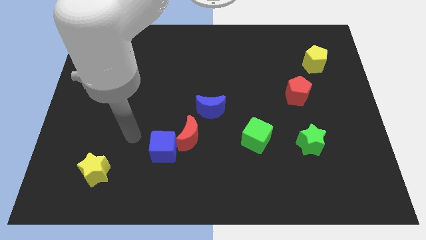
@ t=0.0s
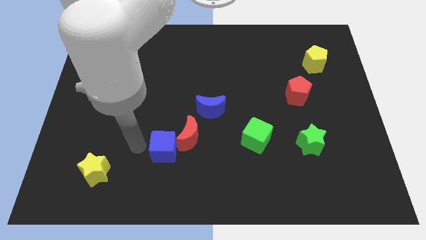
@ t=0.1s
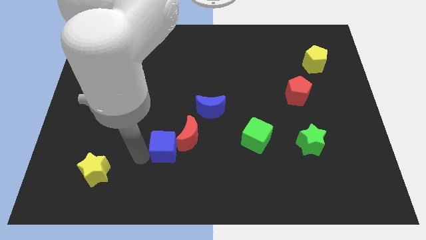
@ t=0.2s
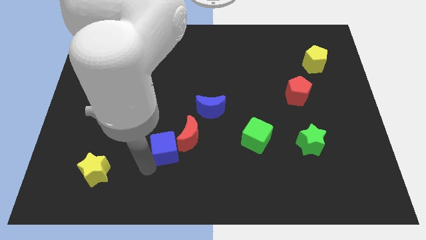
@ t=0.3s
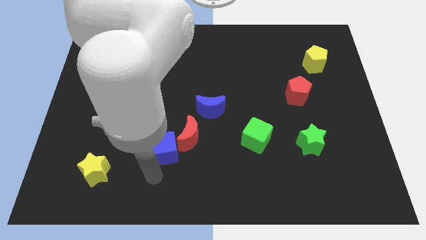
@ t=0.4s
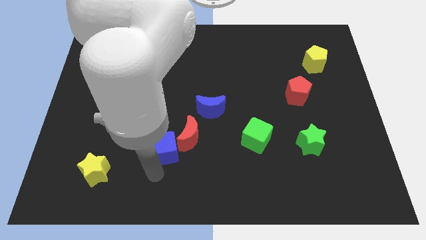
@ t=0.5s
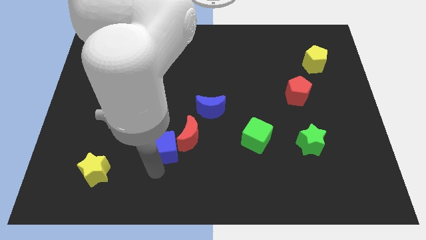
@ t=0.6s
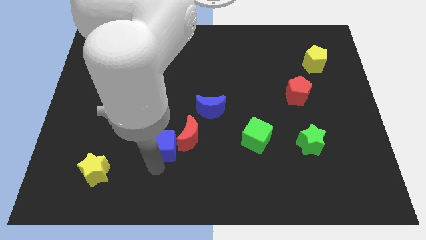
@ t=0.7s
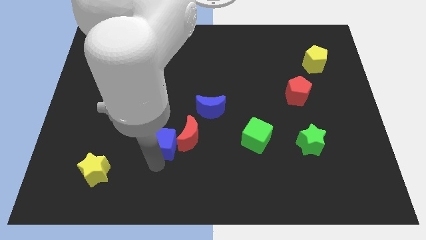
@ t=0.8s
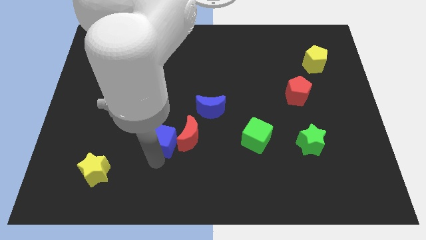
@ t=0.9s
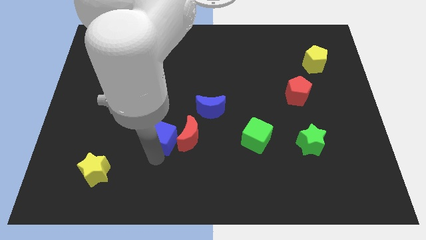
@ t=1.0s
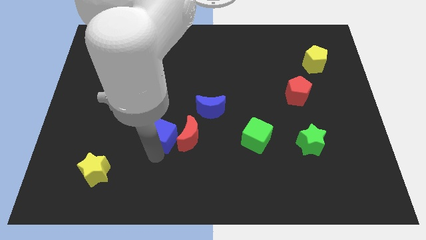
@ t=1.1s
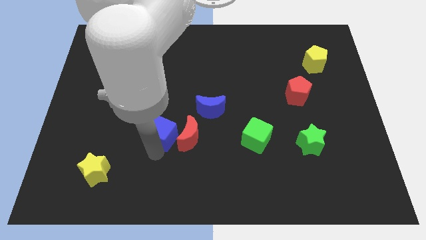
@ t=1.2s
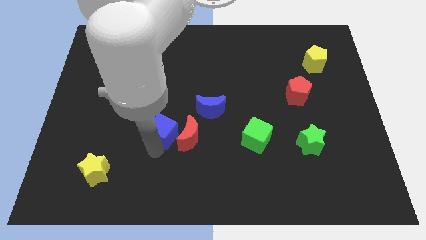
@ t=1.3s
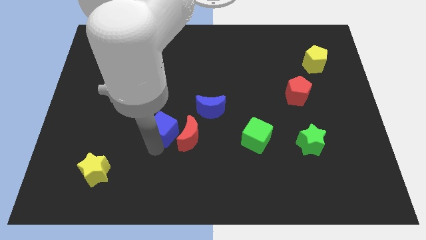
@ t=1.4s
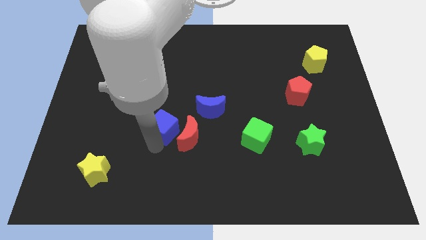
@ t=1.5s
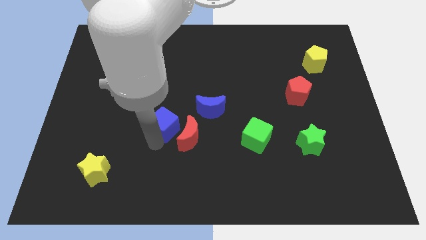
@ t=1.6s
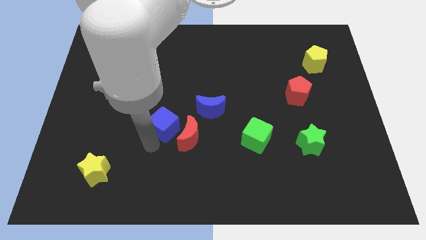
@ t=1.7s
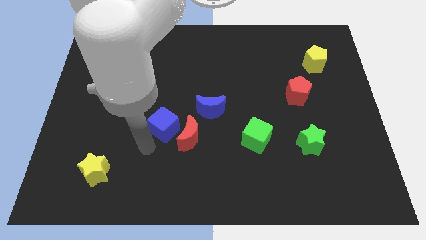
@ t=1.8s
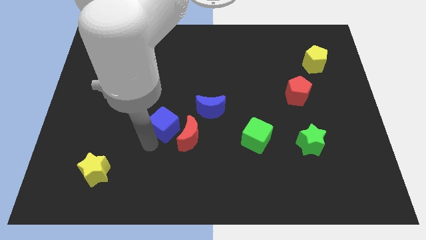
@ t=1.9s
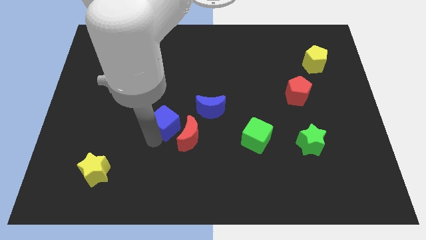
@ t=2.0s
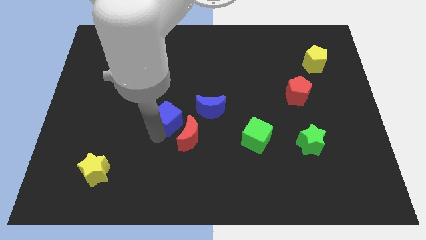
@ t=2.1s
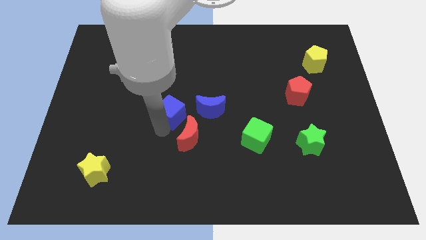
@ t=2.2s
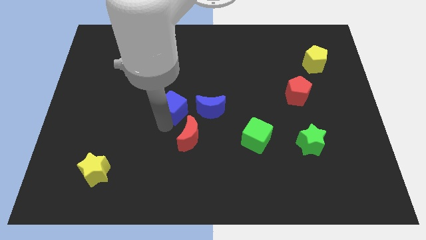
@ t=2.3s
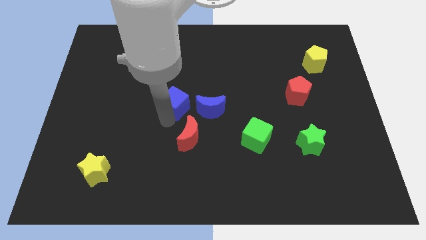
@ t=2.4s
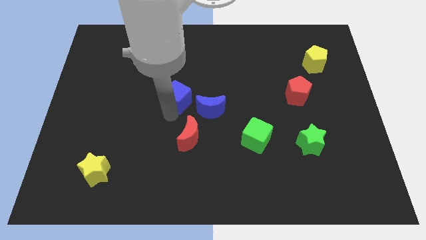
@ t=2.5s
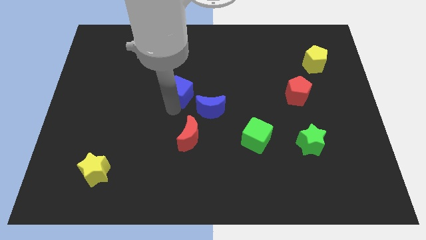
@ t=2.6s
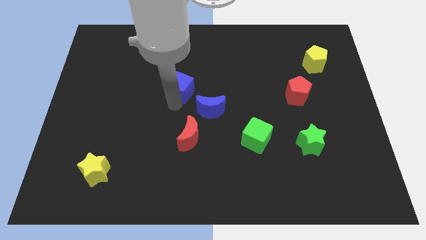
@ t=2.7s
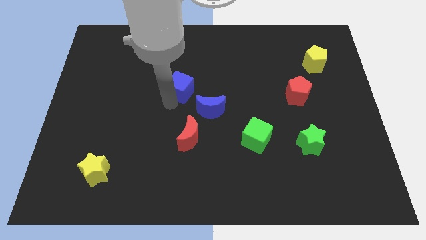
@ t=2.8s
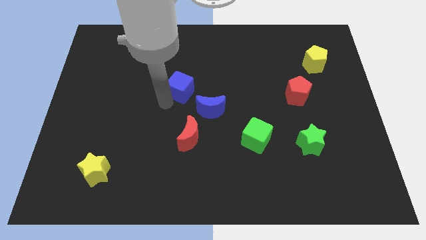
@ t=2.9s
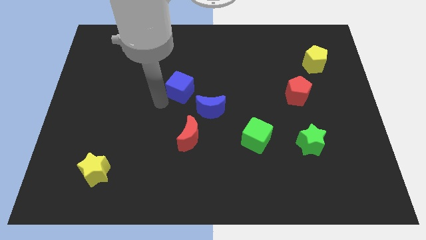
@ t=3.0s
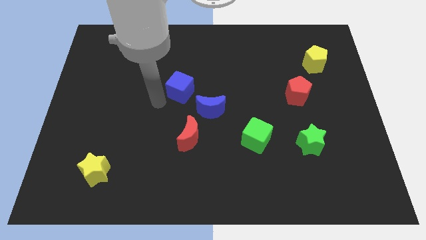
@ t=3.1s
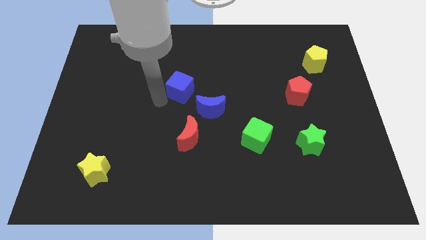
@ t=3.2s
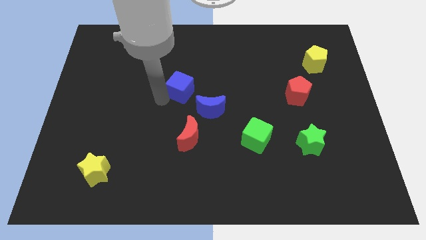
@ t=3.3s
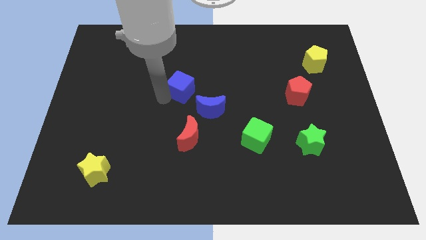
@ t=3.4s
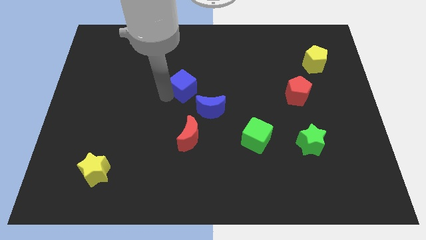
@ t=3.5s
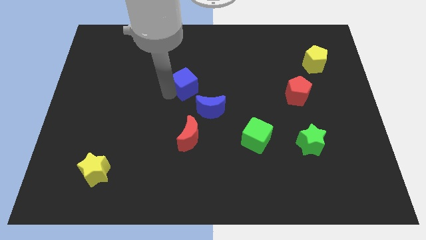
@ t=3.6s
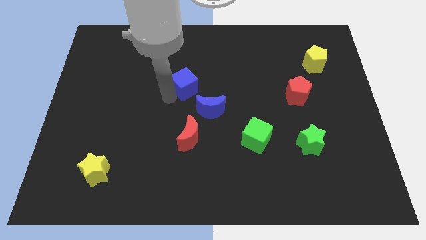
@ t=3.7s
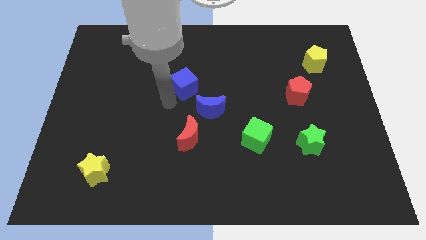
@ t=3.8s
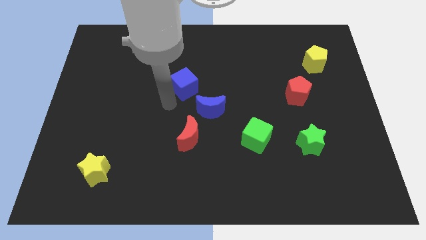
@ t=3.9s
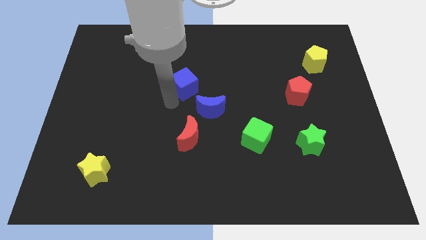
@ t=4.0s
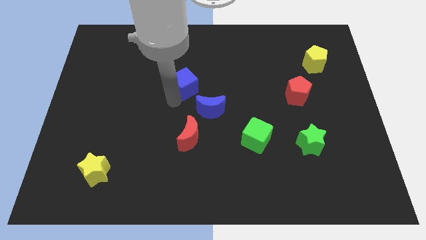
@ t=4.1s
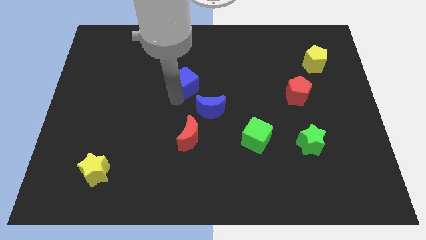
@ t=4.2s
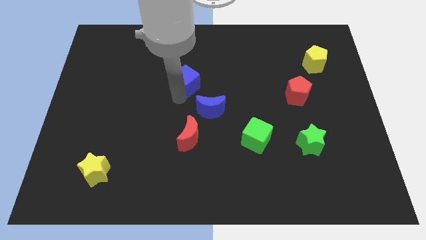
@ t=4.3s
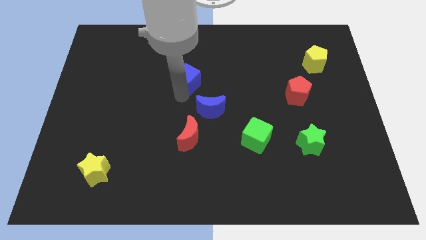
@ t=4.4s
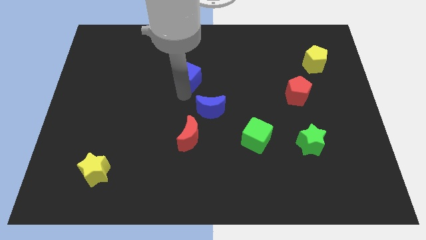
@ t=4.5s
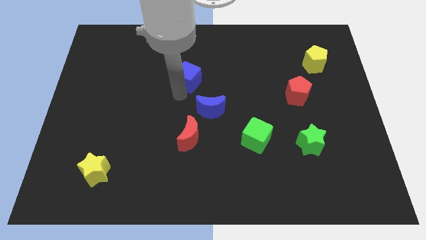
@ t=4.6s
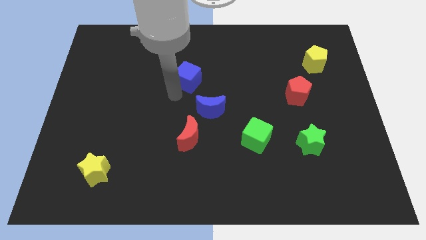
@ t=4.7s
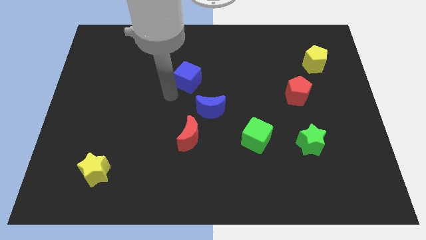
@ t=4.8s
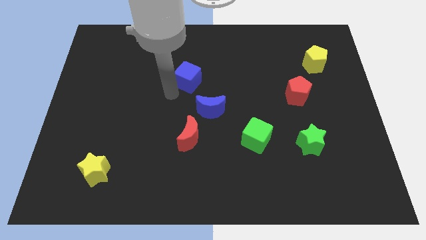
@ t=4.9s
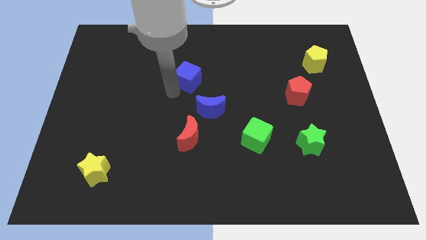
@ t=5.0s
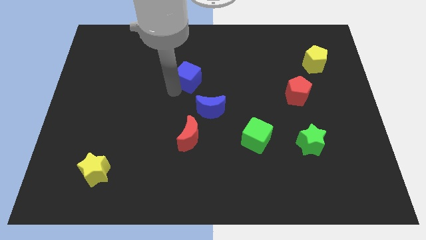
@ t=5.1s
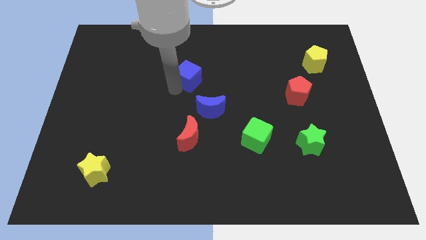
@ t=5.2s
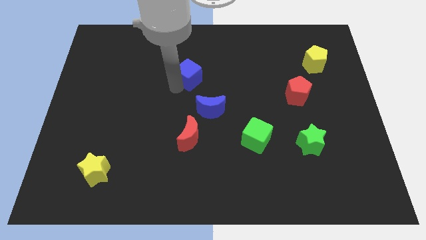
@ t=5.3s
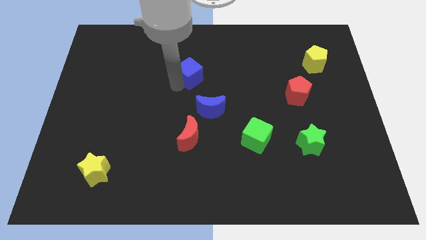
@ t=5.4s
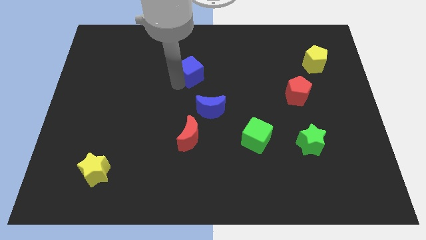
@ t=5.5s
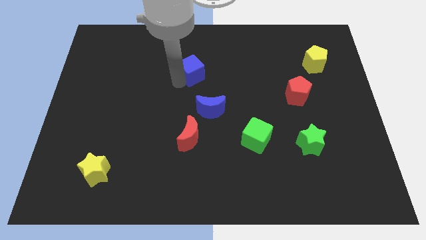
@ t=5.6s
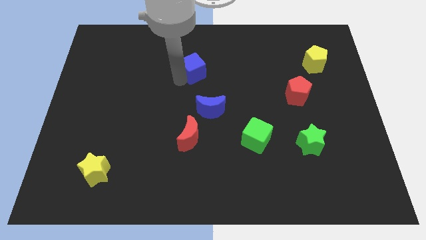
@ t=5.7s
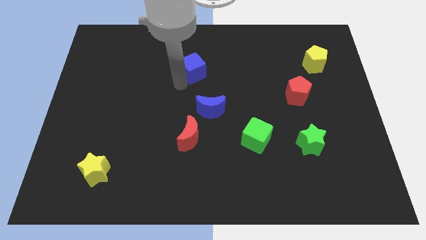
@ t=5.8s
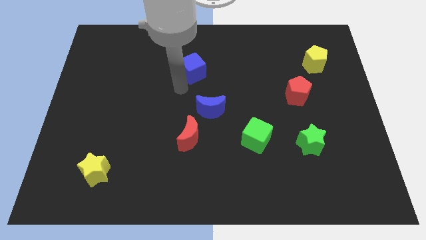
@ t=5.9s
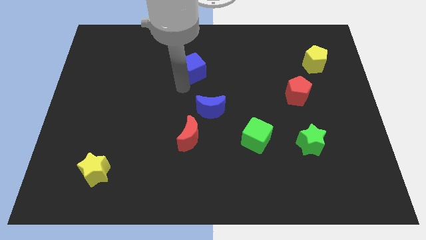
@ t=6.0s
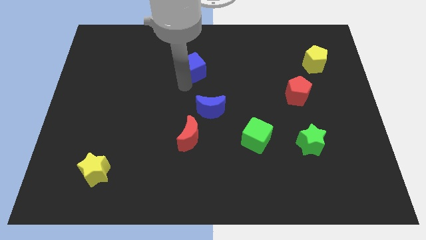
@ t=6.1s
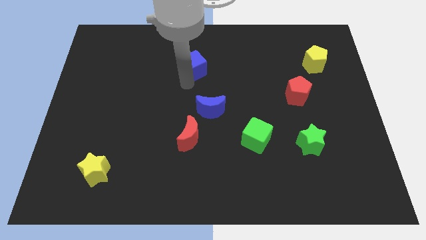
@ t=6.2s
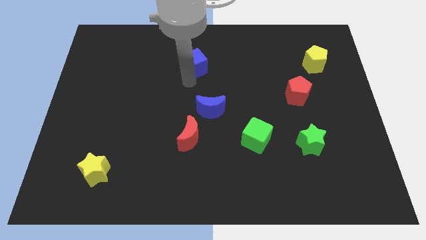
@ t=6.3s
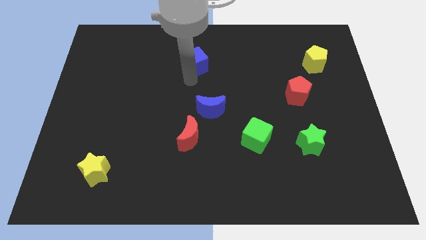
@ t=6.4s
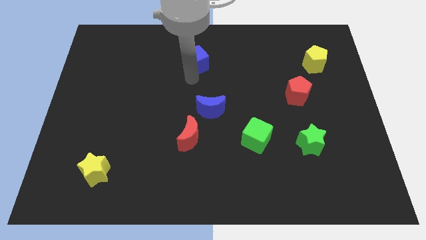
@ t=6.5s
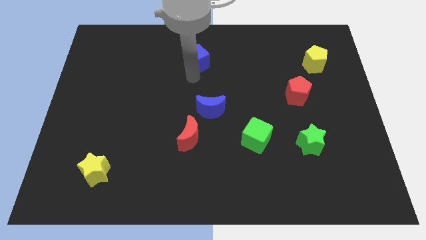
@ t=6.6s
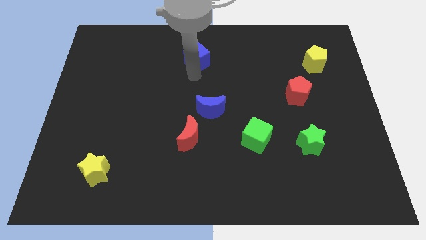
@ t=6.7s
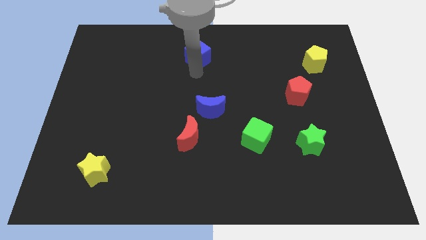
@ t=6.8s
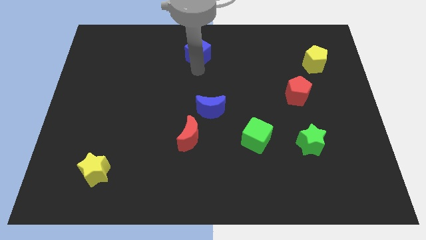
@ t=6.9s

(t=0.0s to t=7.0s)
push the blue cube to the top side

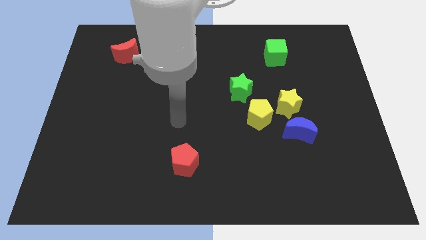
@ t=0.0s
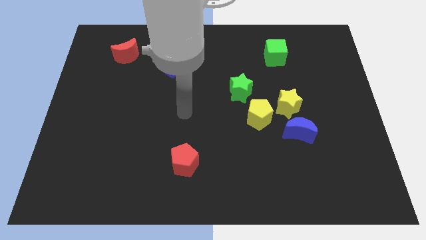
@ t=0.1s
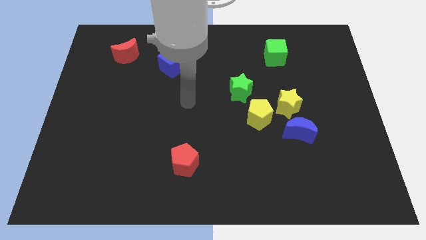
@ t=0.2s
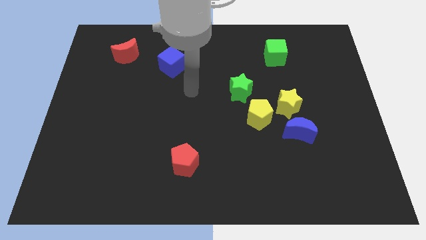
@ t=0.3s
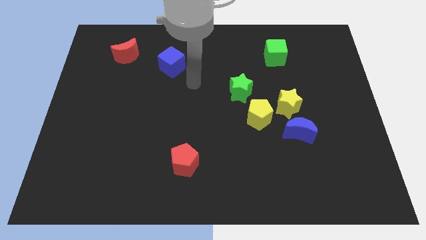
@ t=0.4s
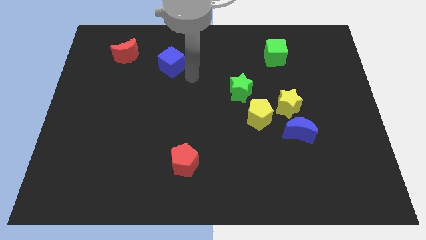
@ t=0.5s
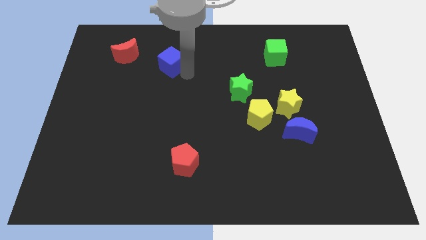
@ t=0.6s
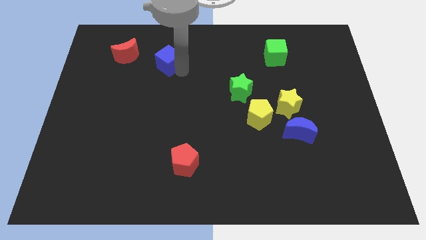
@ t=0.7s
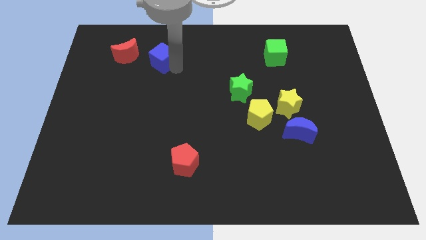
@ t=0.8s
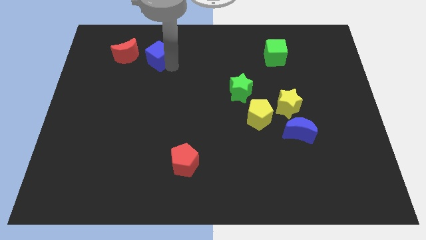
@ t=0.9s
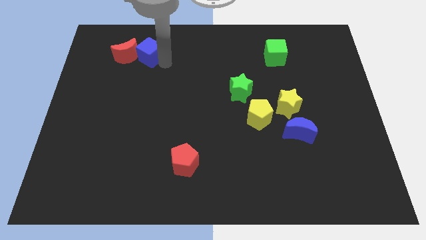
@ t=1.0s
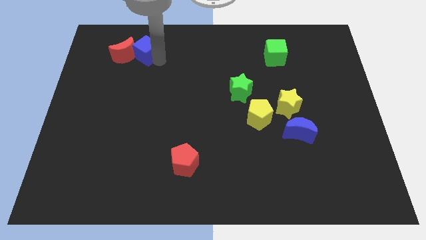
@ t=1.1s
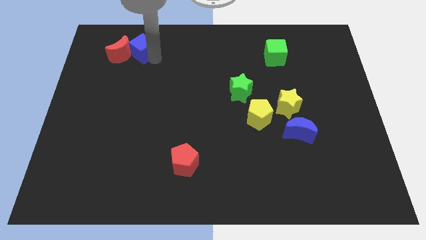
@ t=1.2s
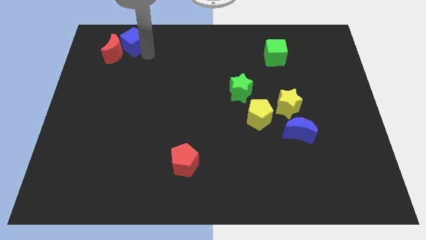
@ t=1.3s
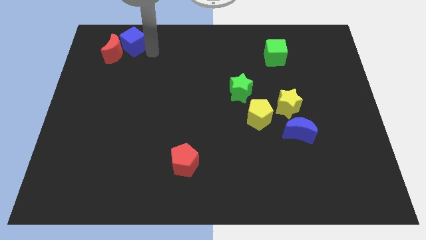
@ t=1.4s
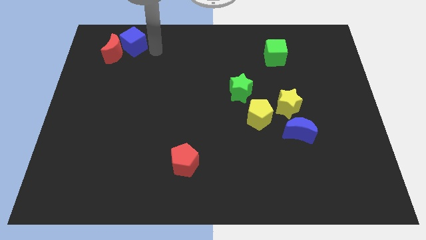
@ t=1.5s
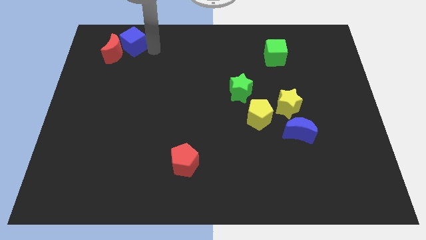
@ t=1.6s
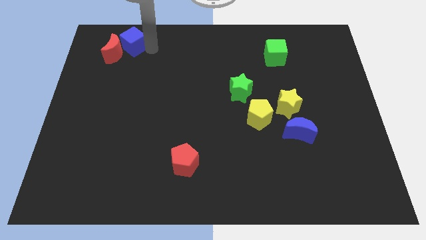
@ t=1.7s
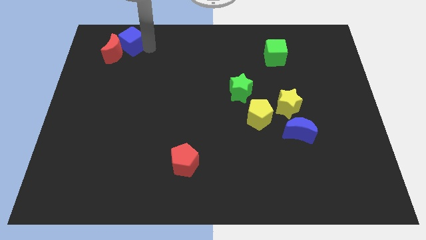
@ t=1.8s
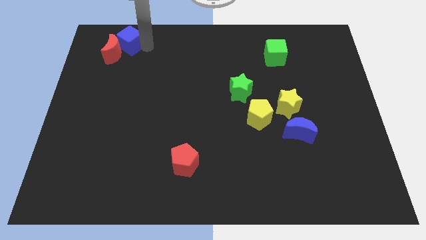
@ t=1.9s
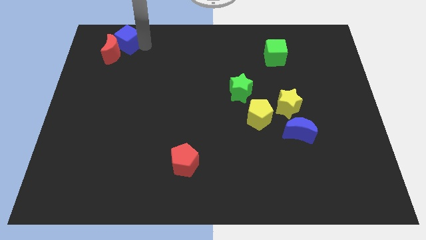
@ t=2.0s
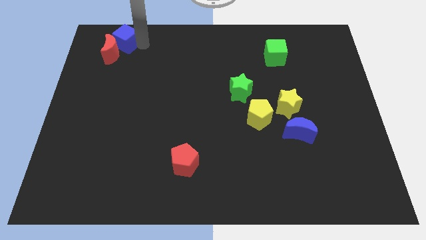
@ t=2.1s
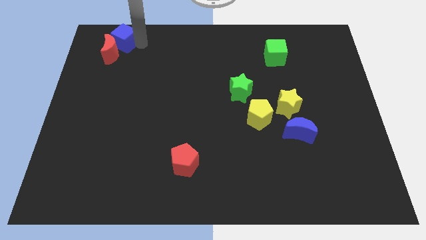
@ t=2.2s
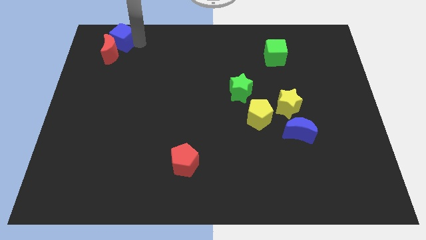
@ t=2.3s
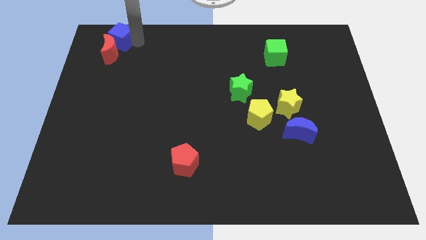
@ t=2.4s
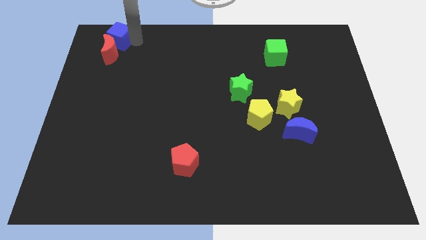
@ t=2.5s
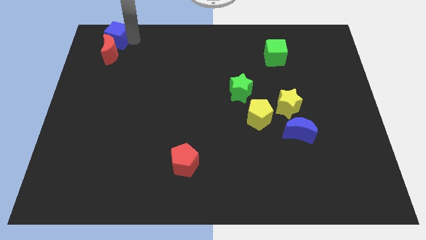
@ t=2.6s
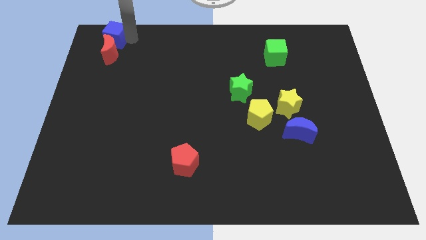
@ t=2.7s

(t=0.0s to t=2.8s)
push the blue cube to the top left corner
